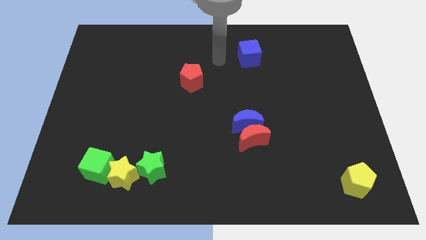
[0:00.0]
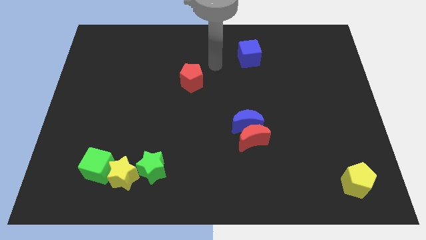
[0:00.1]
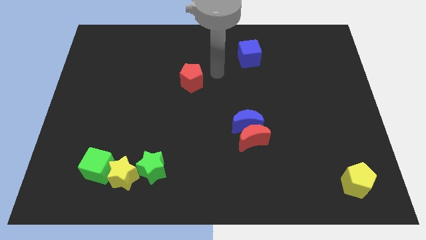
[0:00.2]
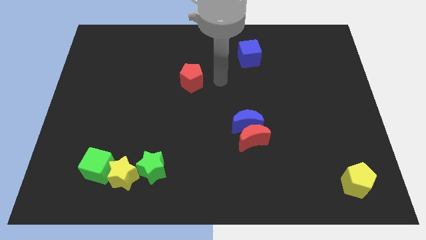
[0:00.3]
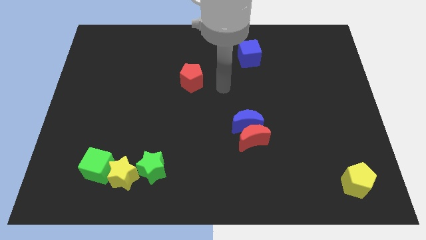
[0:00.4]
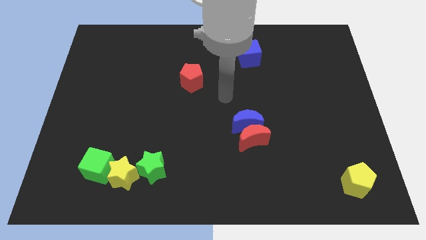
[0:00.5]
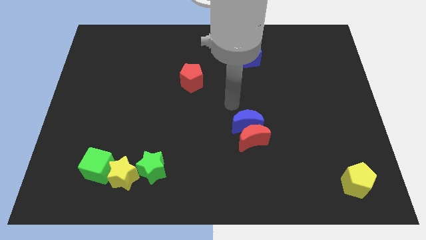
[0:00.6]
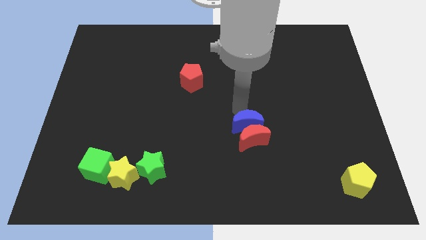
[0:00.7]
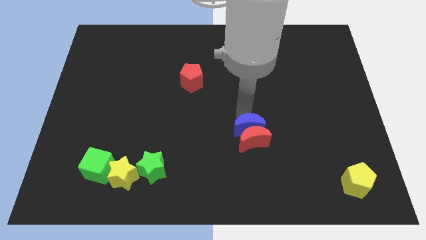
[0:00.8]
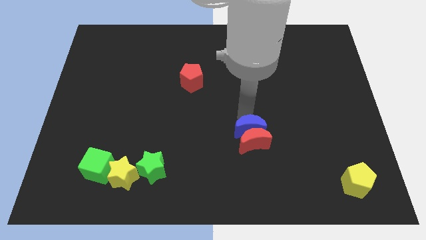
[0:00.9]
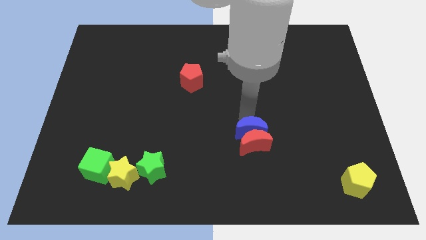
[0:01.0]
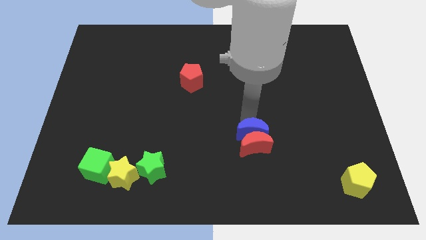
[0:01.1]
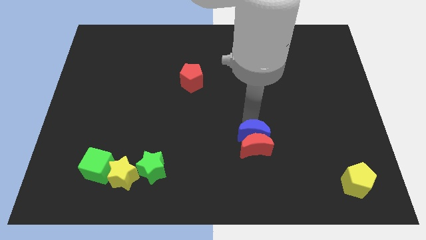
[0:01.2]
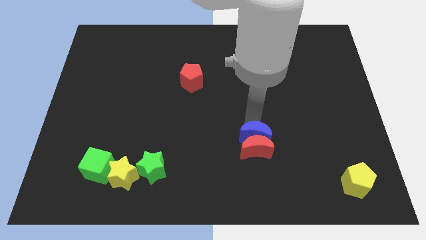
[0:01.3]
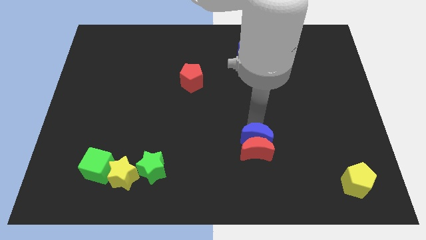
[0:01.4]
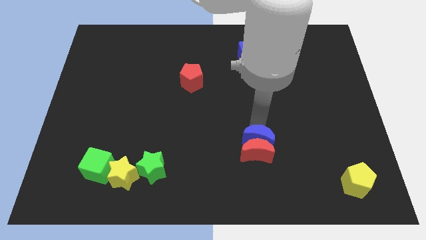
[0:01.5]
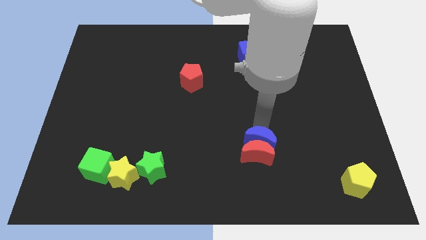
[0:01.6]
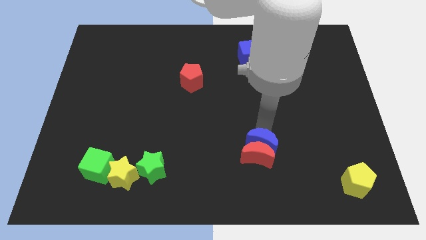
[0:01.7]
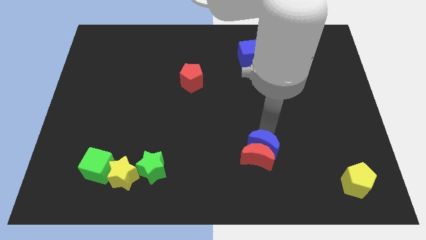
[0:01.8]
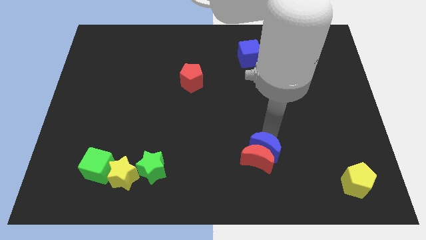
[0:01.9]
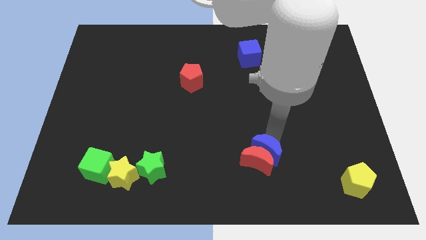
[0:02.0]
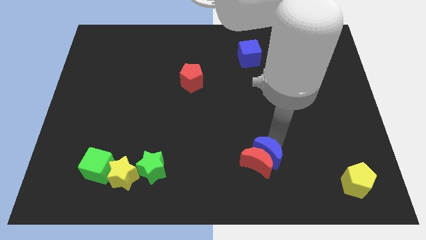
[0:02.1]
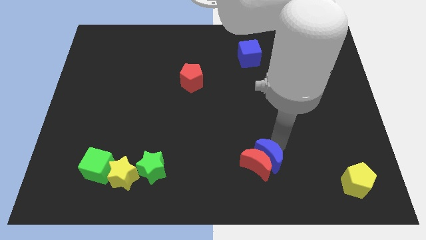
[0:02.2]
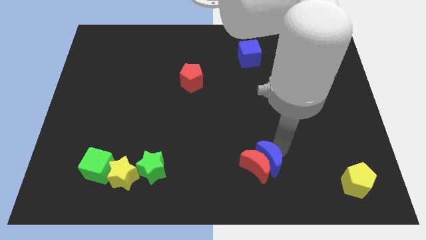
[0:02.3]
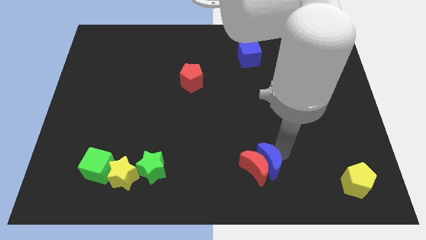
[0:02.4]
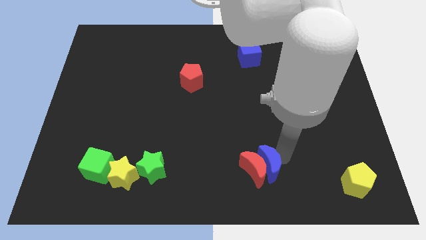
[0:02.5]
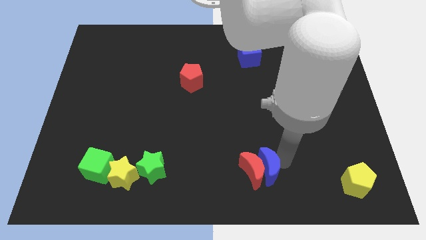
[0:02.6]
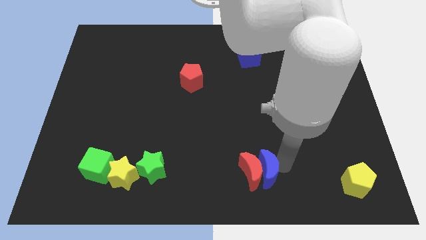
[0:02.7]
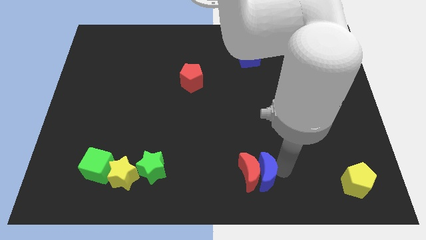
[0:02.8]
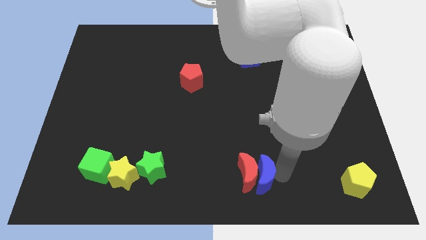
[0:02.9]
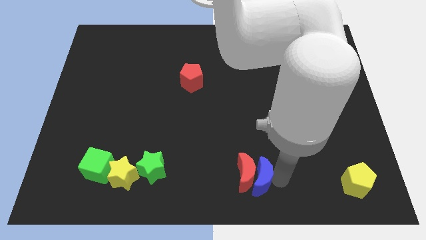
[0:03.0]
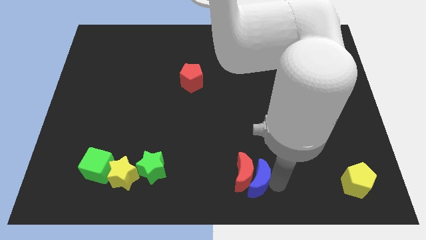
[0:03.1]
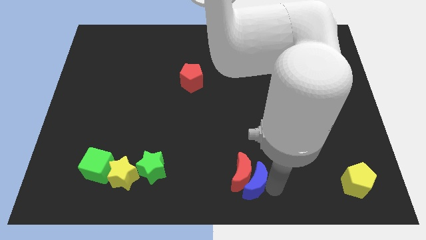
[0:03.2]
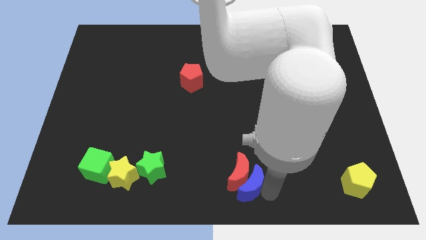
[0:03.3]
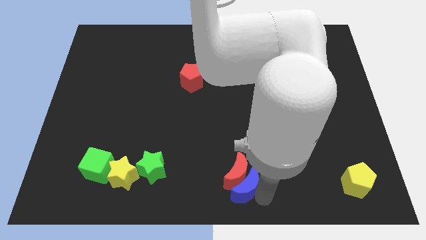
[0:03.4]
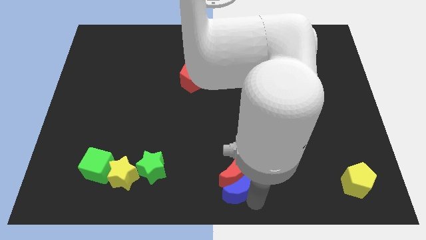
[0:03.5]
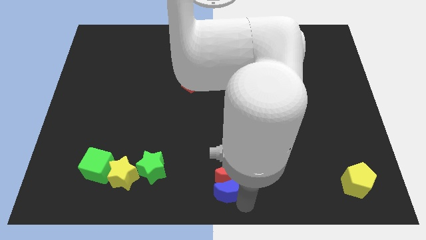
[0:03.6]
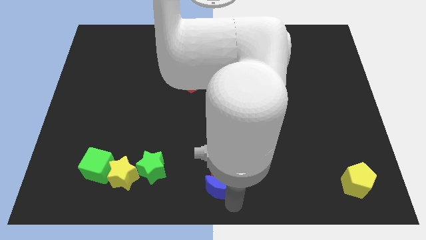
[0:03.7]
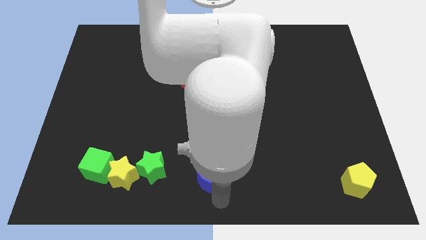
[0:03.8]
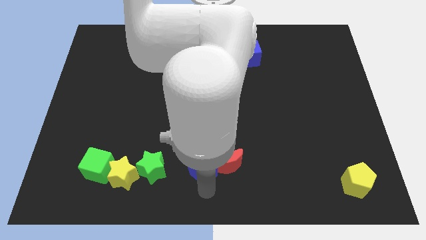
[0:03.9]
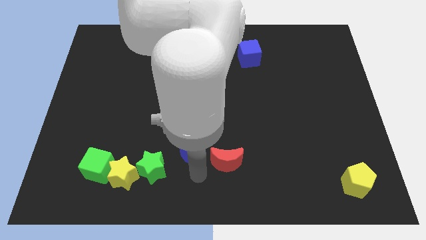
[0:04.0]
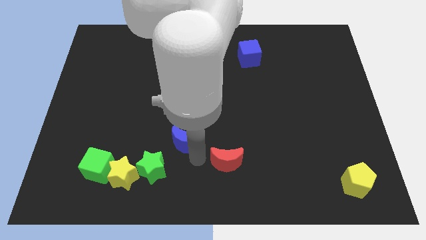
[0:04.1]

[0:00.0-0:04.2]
move the red moon away from the blue moon

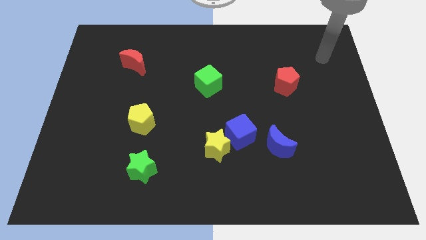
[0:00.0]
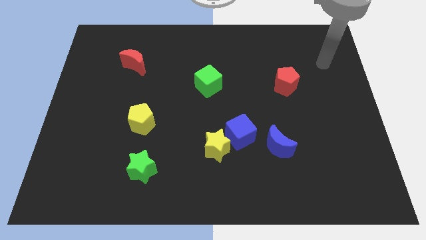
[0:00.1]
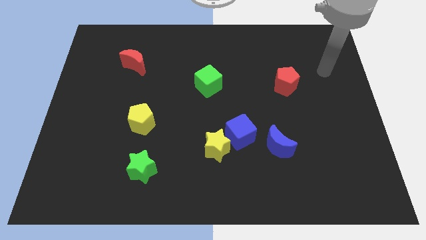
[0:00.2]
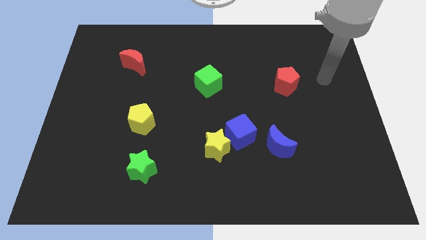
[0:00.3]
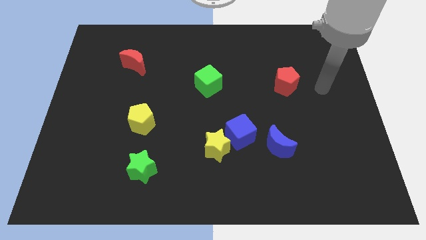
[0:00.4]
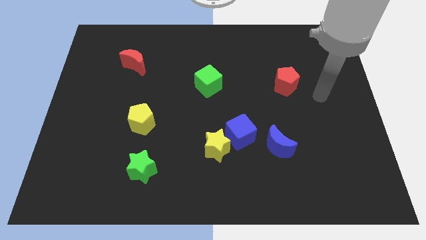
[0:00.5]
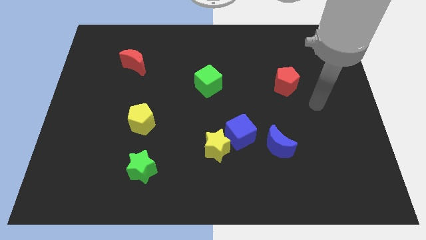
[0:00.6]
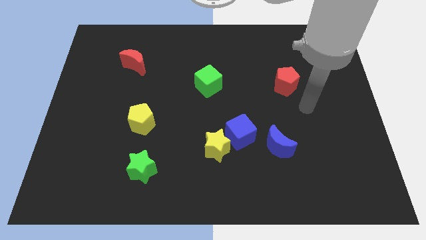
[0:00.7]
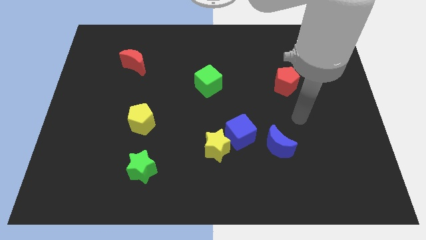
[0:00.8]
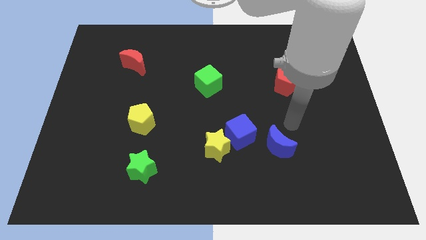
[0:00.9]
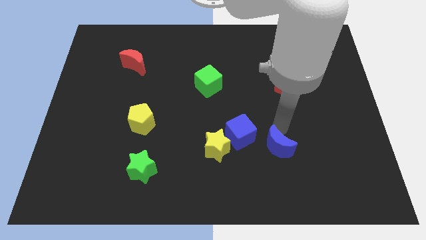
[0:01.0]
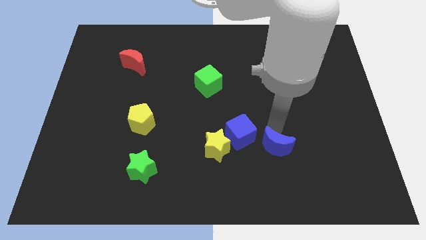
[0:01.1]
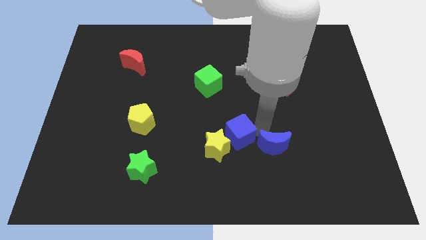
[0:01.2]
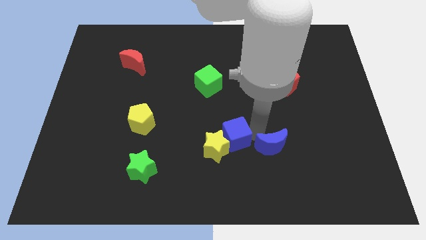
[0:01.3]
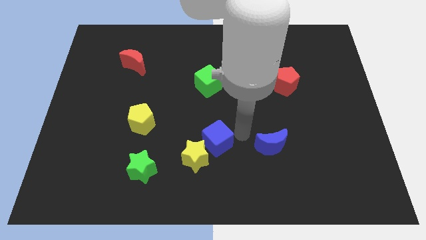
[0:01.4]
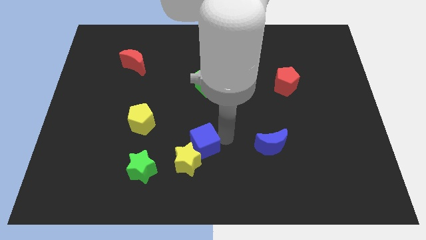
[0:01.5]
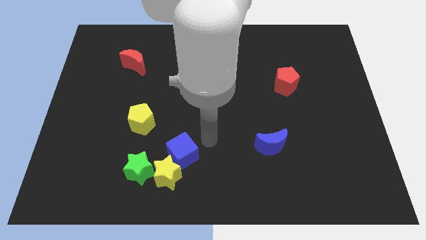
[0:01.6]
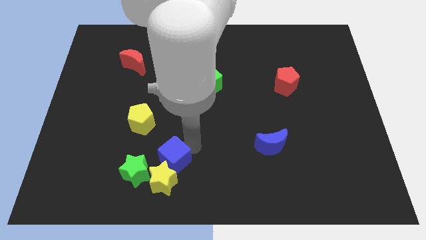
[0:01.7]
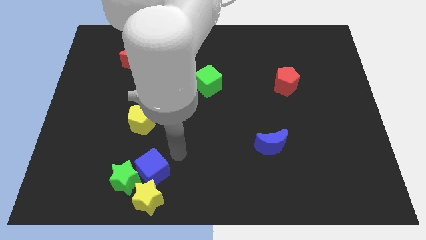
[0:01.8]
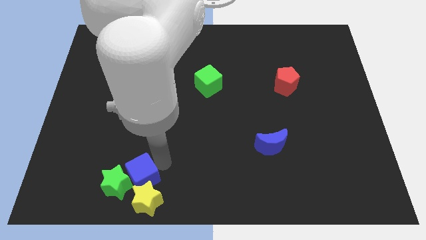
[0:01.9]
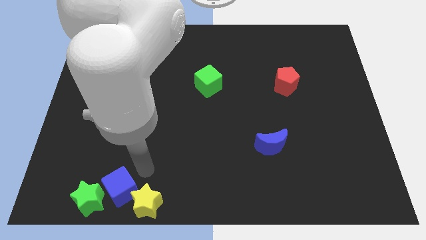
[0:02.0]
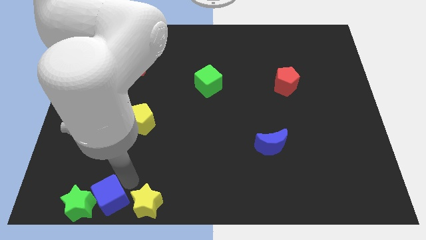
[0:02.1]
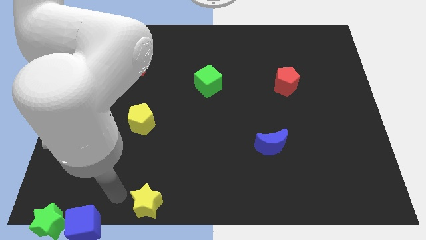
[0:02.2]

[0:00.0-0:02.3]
separate the yellow star from the blue cube

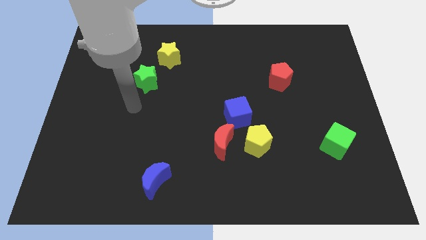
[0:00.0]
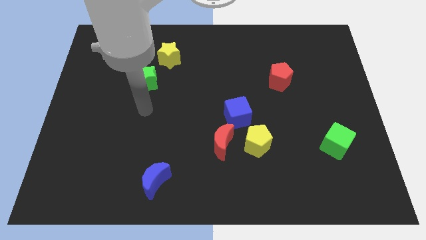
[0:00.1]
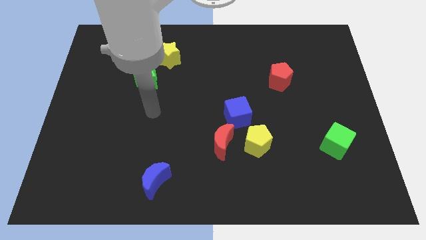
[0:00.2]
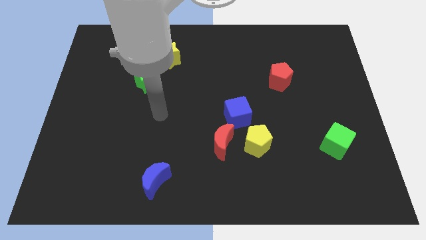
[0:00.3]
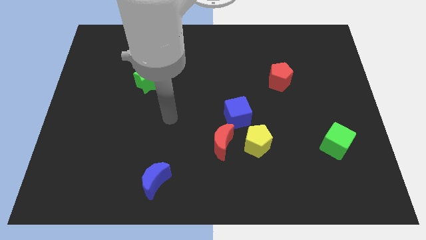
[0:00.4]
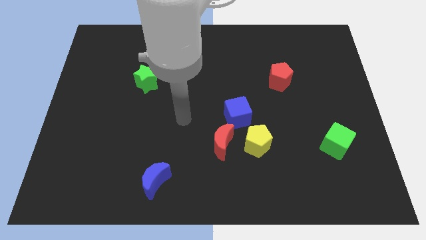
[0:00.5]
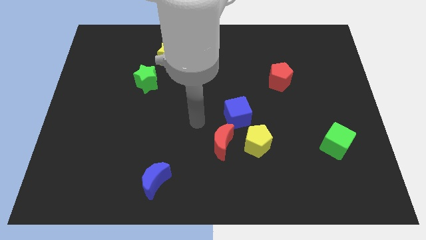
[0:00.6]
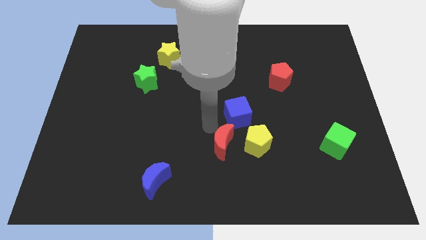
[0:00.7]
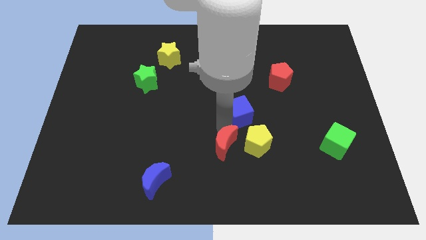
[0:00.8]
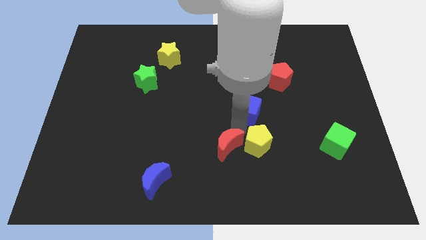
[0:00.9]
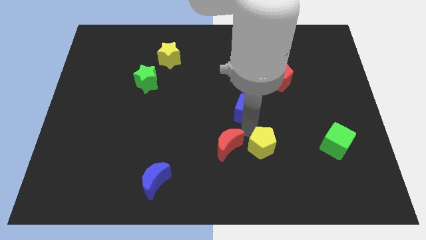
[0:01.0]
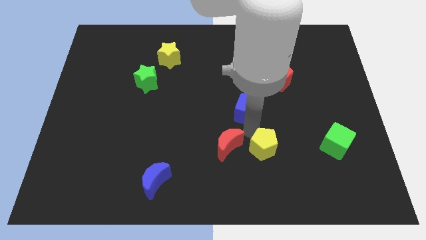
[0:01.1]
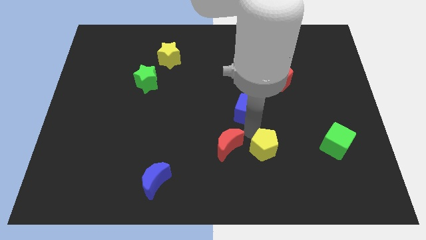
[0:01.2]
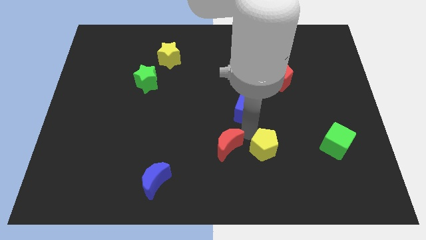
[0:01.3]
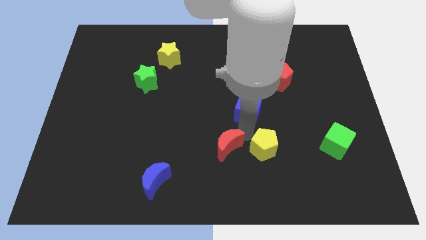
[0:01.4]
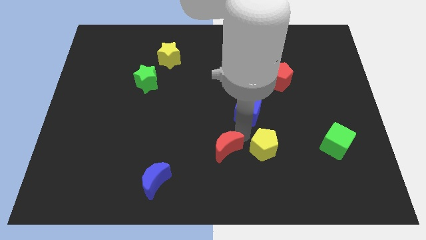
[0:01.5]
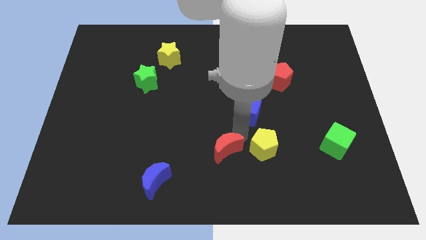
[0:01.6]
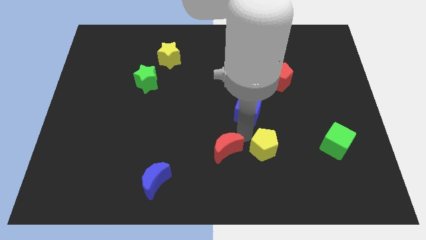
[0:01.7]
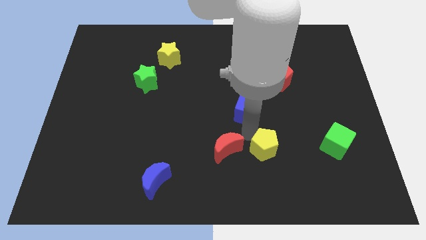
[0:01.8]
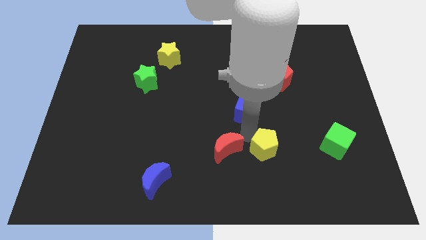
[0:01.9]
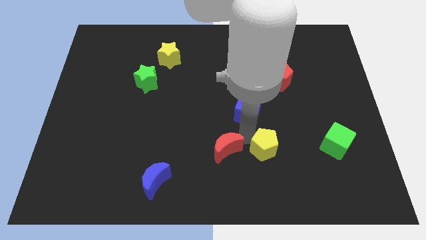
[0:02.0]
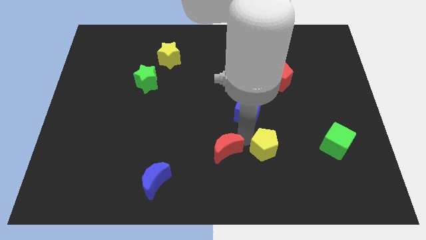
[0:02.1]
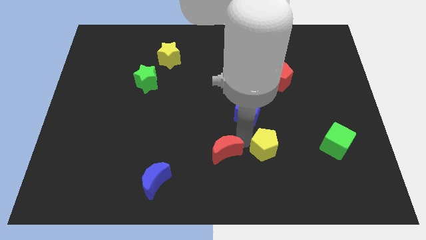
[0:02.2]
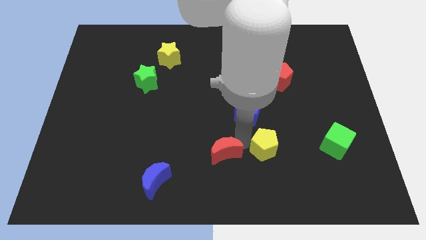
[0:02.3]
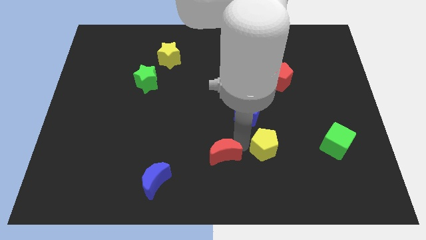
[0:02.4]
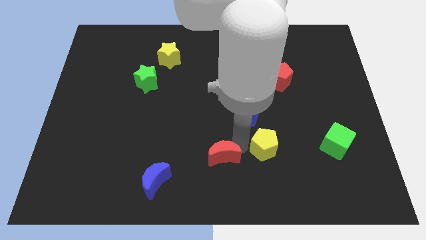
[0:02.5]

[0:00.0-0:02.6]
separate the red moon from the yellow pentagon and blue cube

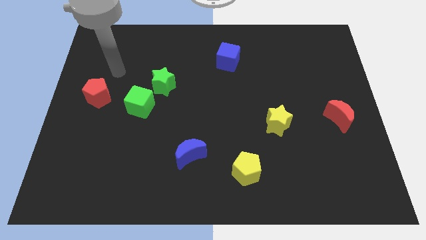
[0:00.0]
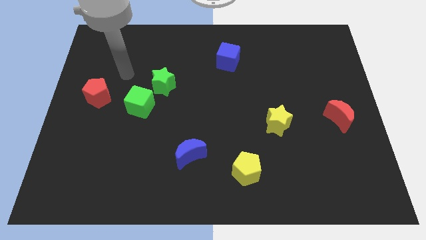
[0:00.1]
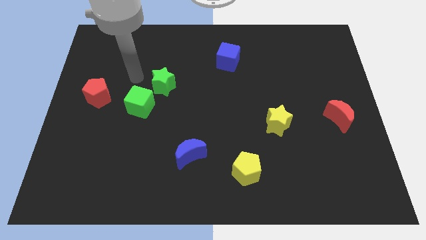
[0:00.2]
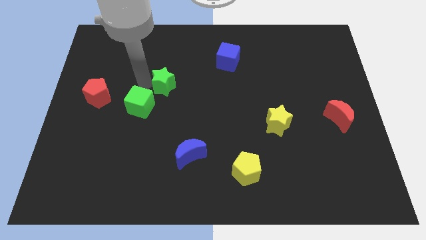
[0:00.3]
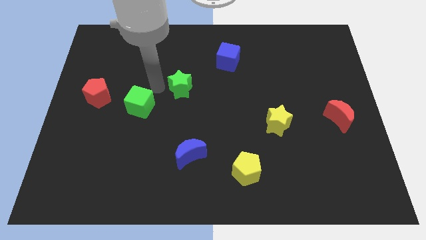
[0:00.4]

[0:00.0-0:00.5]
pull the green cube apart from the green star
